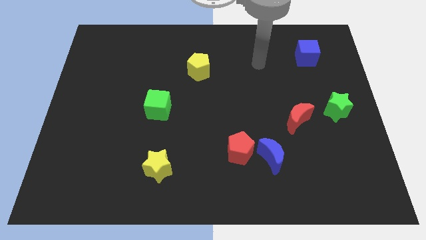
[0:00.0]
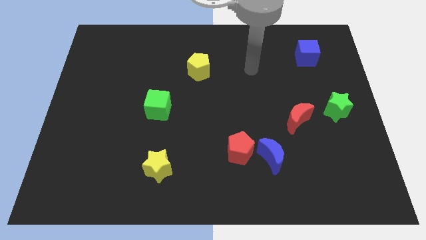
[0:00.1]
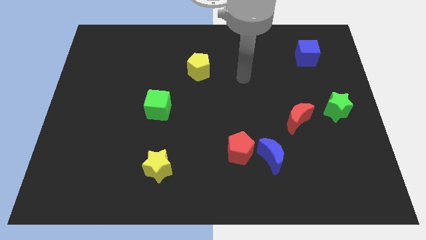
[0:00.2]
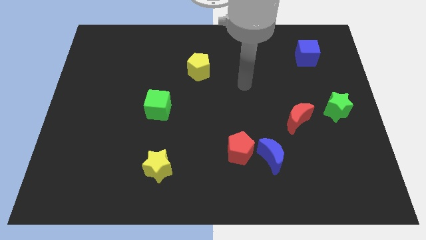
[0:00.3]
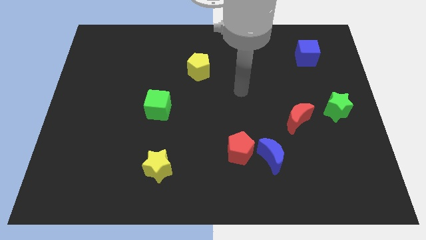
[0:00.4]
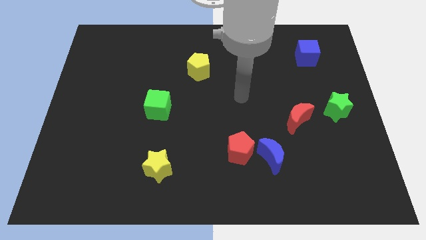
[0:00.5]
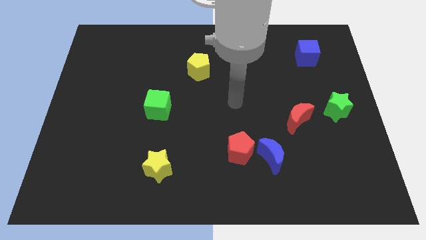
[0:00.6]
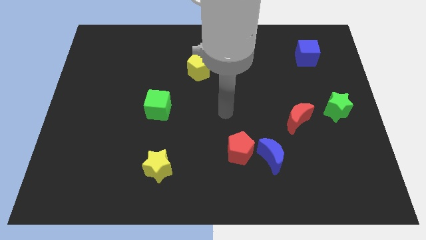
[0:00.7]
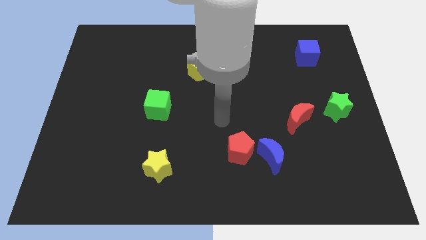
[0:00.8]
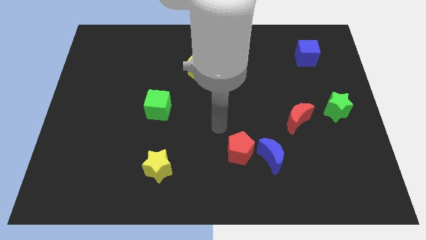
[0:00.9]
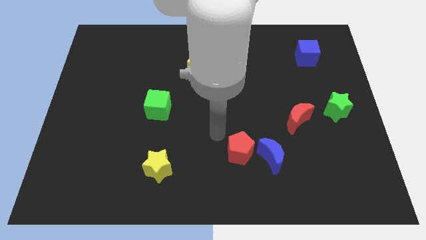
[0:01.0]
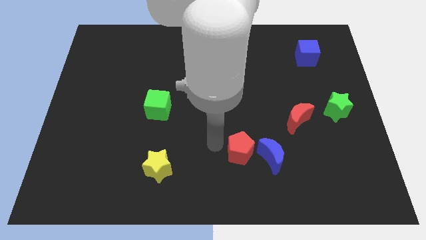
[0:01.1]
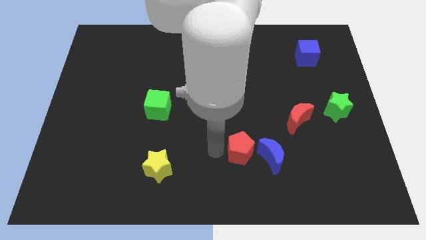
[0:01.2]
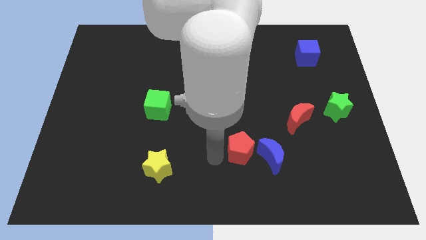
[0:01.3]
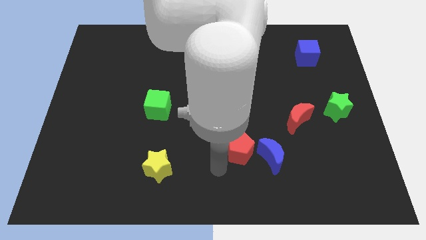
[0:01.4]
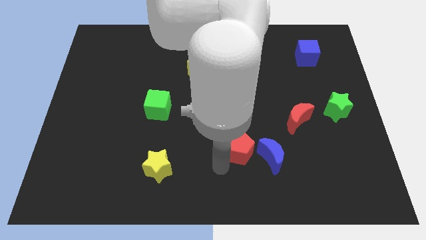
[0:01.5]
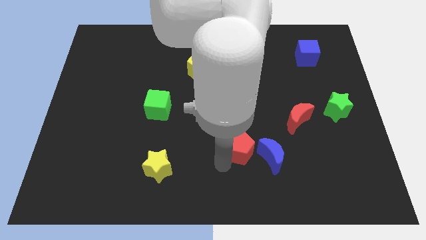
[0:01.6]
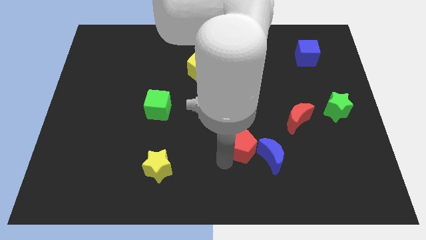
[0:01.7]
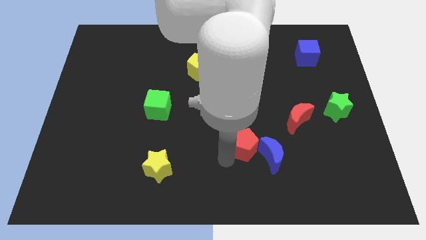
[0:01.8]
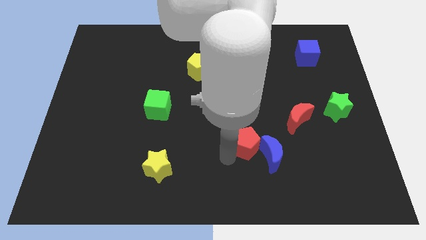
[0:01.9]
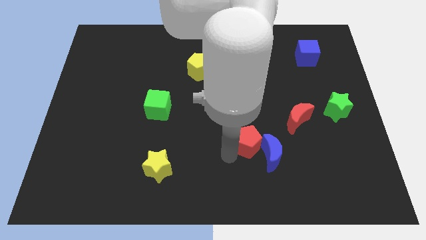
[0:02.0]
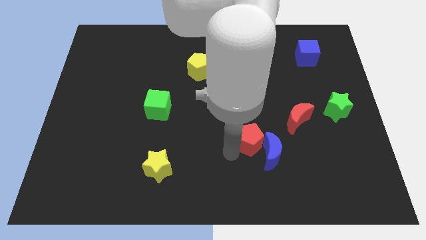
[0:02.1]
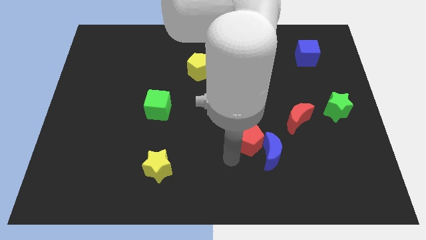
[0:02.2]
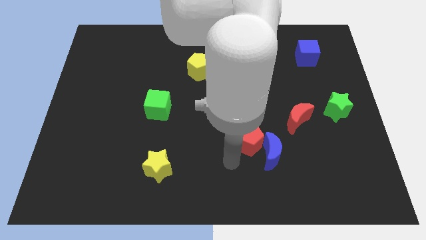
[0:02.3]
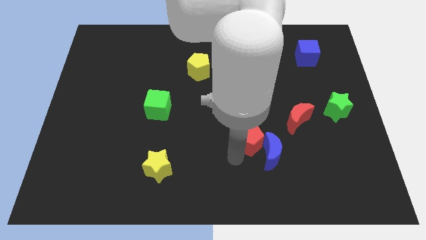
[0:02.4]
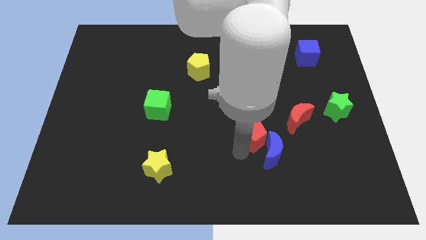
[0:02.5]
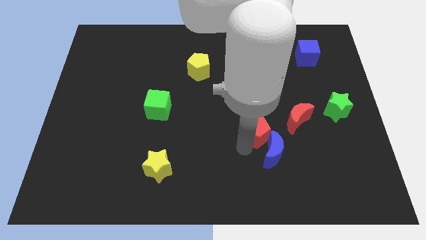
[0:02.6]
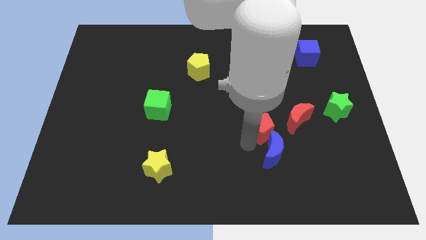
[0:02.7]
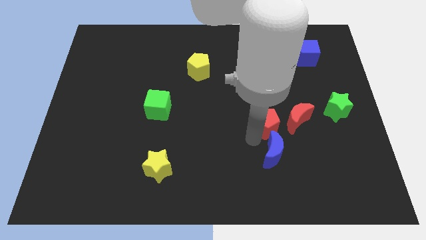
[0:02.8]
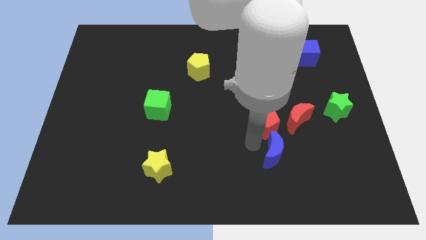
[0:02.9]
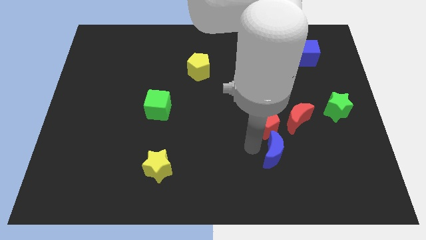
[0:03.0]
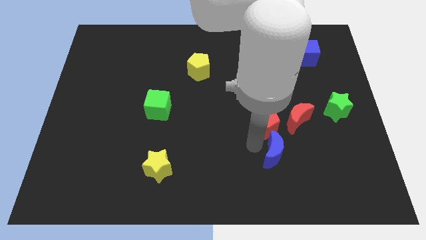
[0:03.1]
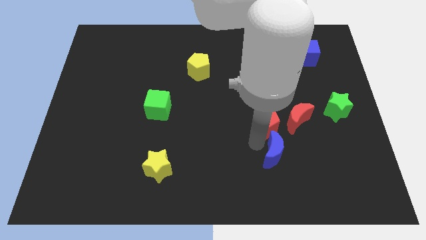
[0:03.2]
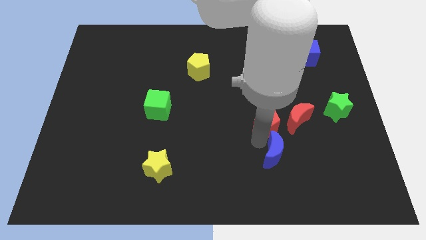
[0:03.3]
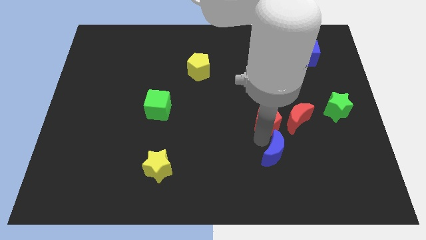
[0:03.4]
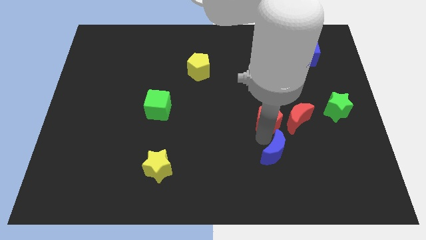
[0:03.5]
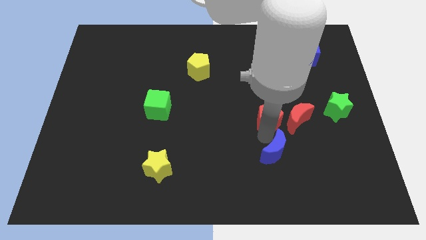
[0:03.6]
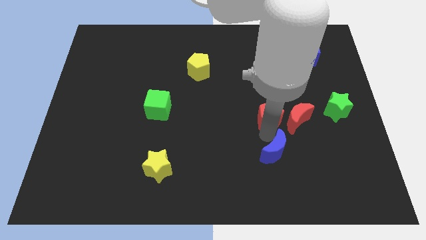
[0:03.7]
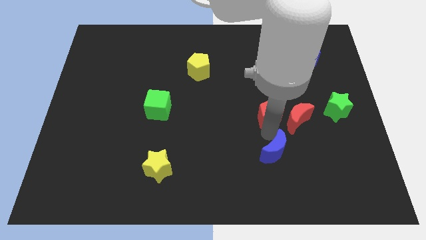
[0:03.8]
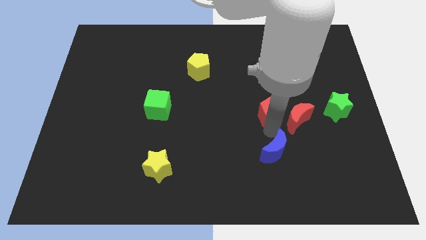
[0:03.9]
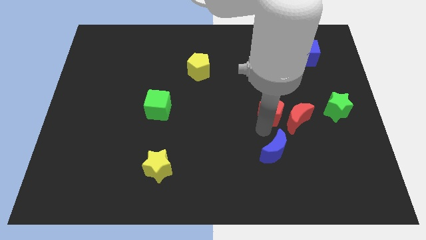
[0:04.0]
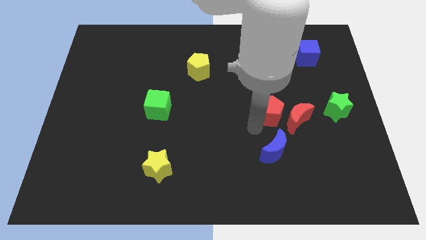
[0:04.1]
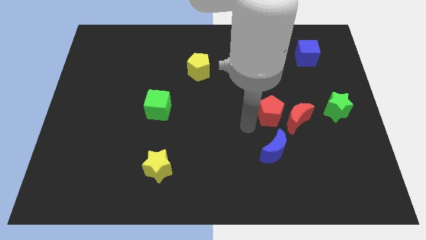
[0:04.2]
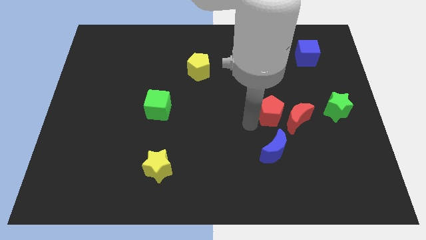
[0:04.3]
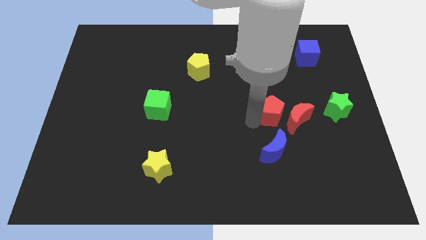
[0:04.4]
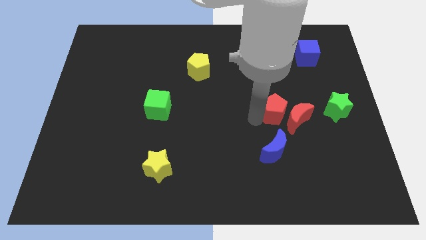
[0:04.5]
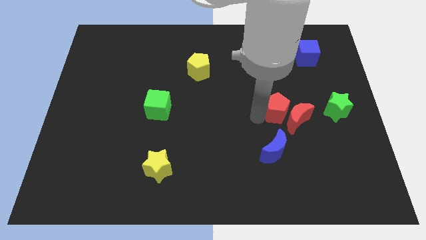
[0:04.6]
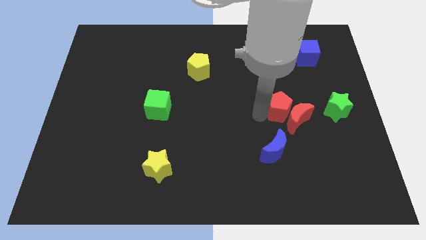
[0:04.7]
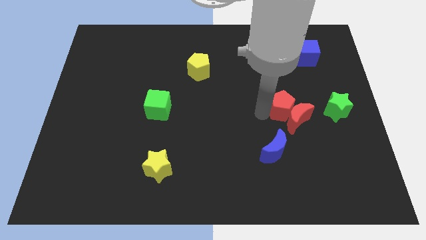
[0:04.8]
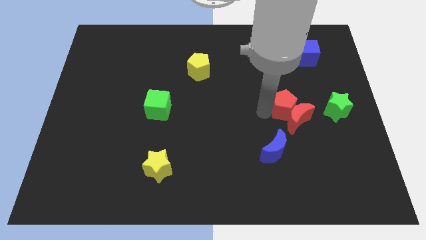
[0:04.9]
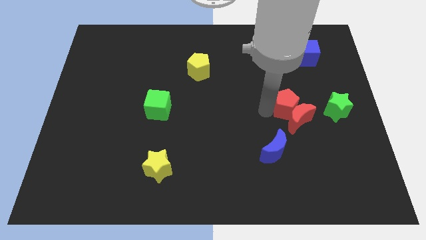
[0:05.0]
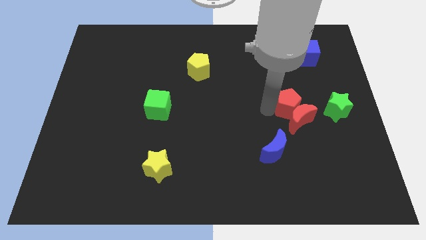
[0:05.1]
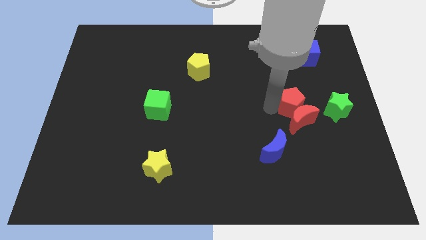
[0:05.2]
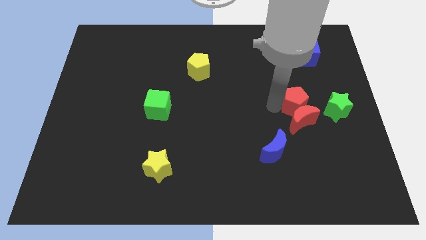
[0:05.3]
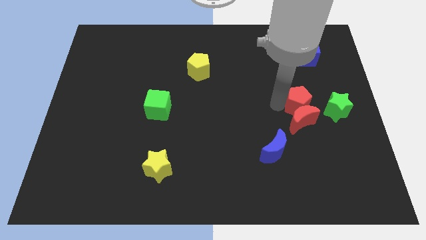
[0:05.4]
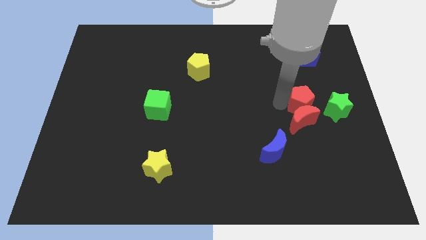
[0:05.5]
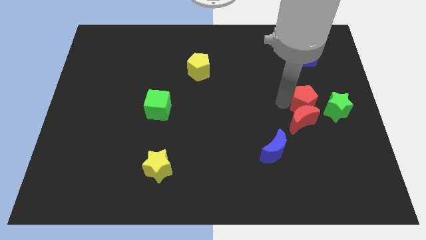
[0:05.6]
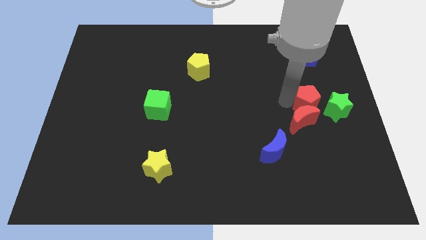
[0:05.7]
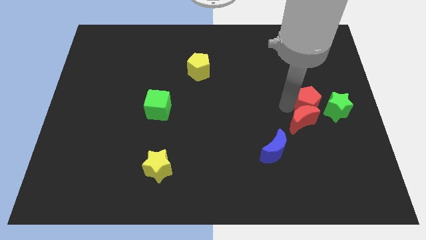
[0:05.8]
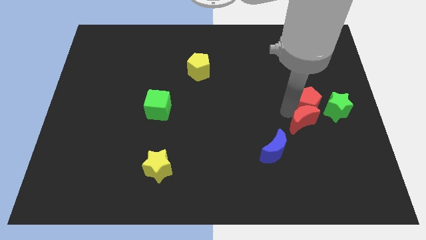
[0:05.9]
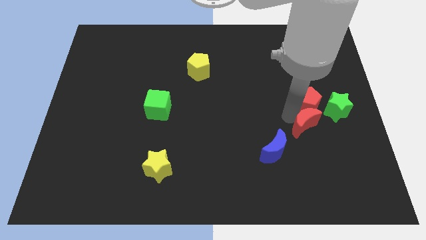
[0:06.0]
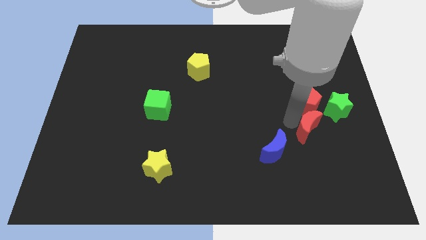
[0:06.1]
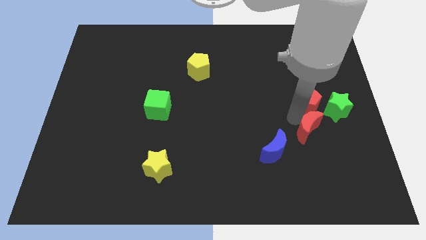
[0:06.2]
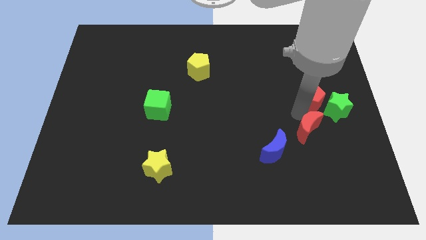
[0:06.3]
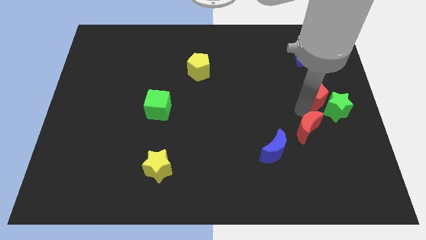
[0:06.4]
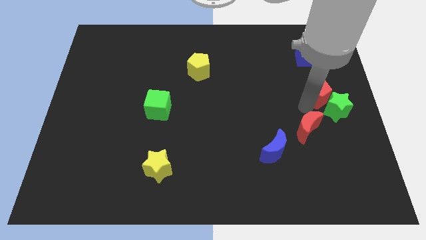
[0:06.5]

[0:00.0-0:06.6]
push the red pentagon to the top of the green star

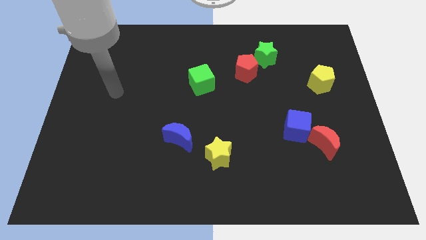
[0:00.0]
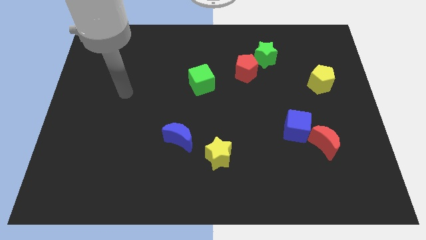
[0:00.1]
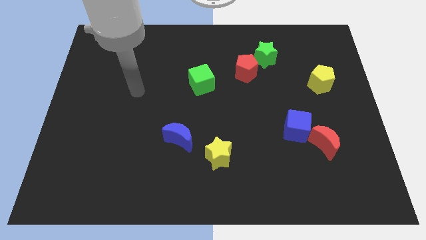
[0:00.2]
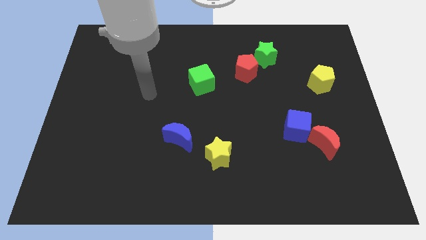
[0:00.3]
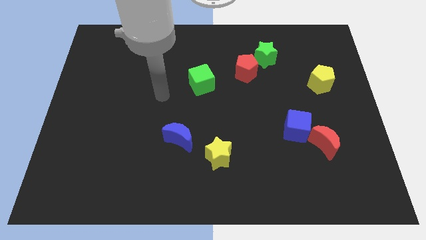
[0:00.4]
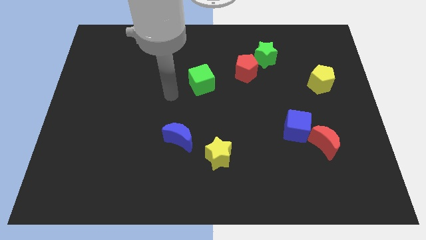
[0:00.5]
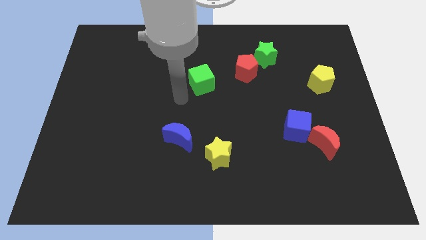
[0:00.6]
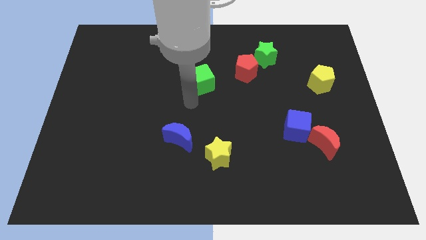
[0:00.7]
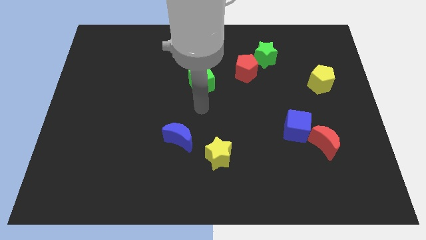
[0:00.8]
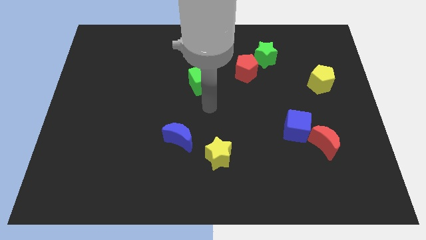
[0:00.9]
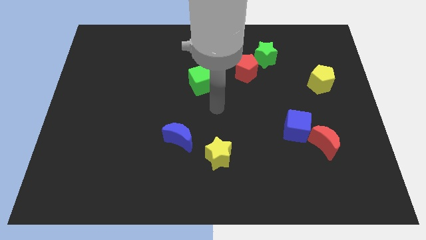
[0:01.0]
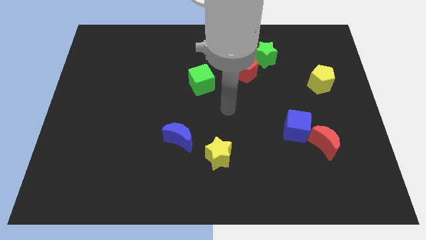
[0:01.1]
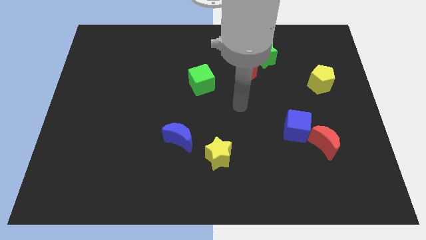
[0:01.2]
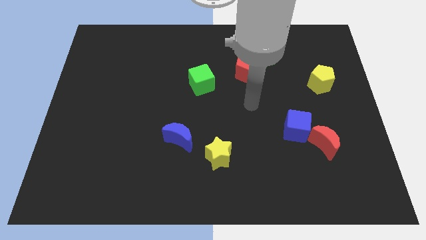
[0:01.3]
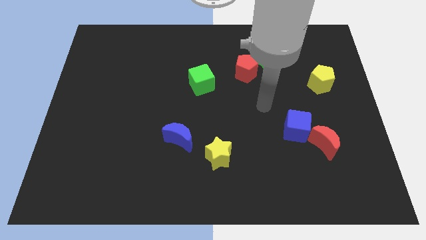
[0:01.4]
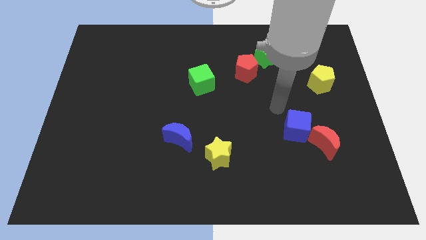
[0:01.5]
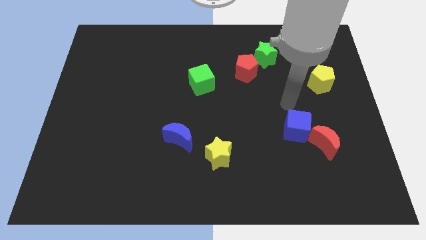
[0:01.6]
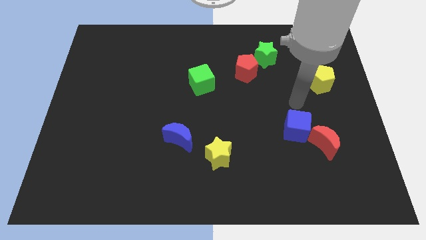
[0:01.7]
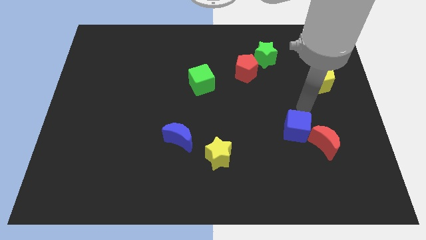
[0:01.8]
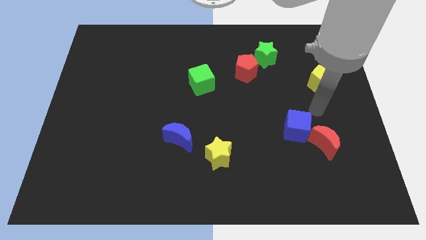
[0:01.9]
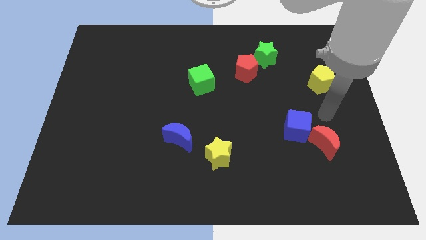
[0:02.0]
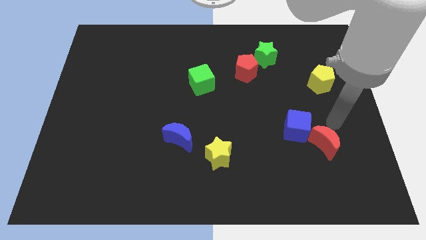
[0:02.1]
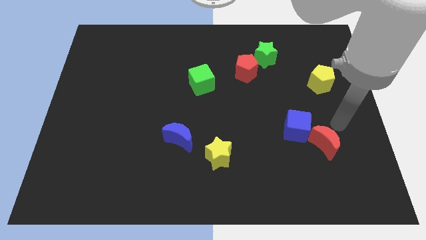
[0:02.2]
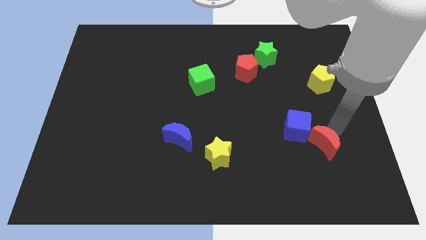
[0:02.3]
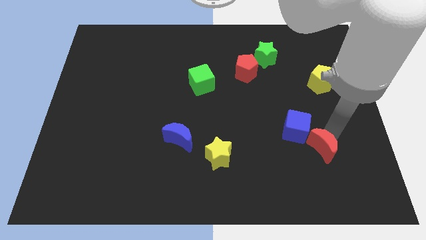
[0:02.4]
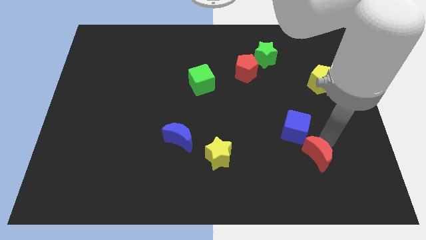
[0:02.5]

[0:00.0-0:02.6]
put the red moon to the bottom side of the blue cube
